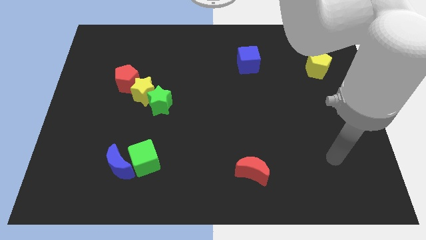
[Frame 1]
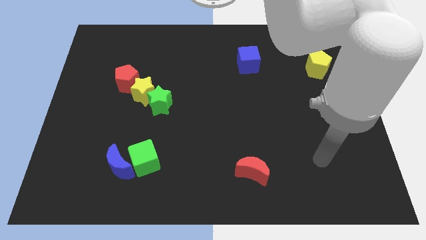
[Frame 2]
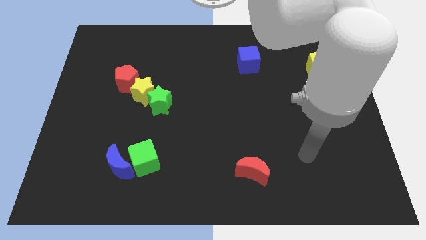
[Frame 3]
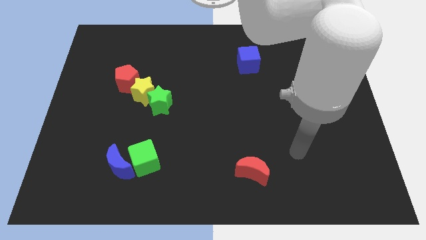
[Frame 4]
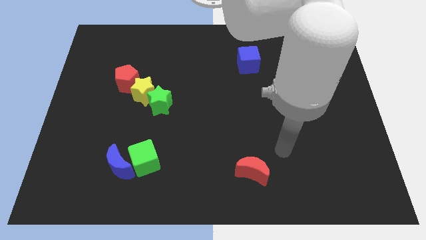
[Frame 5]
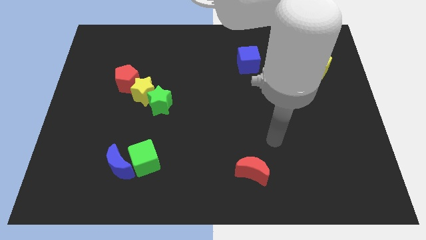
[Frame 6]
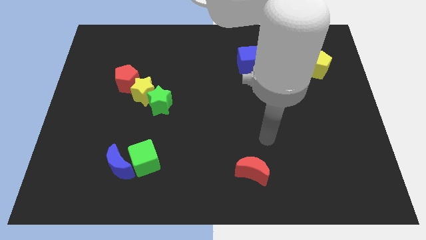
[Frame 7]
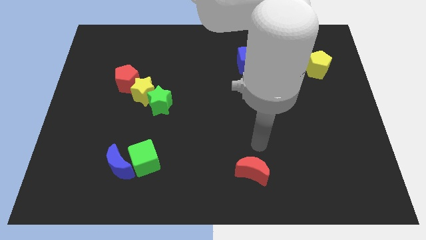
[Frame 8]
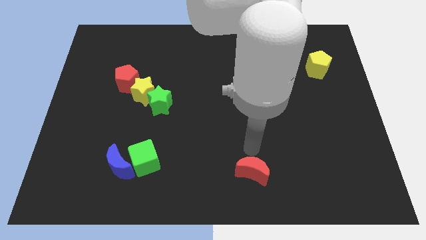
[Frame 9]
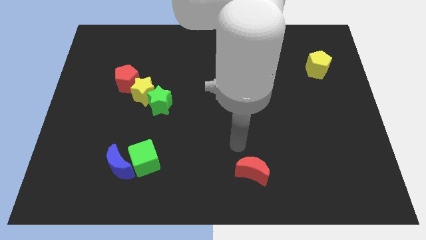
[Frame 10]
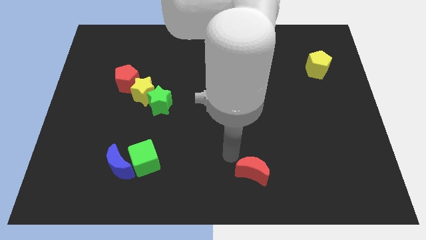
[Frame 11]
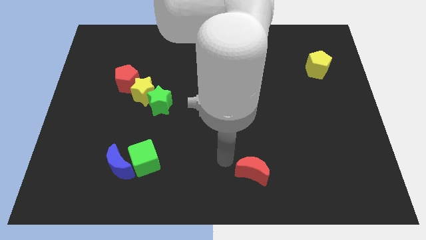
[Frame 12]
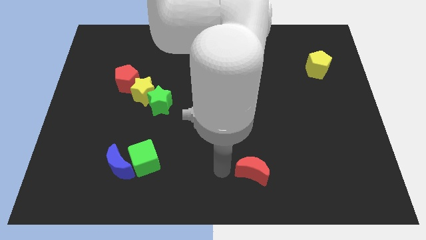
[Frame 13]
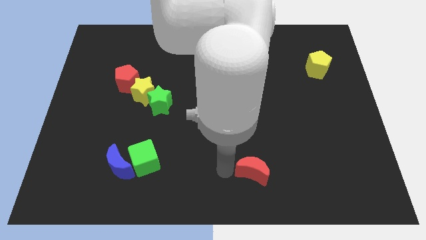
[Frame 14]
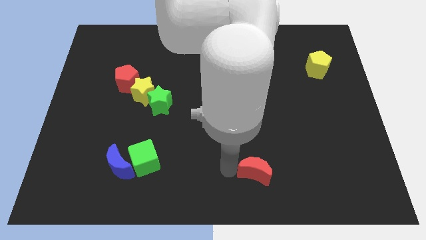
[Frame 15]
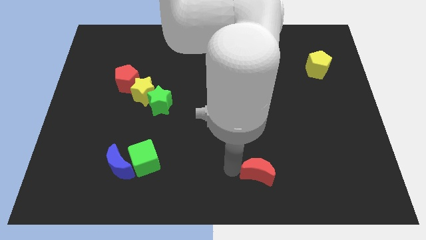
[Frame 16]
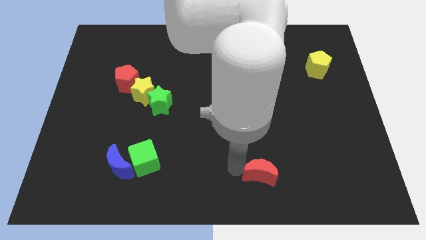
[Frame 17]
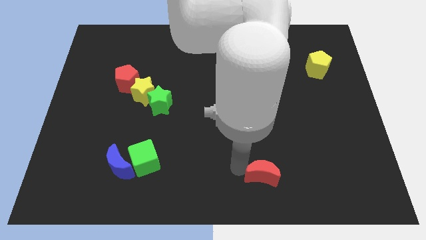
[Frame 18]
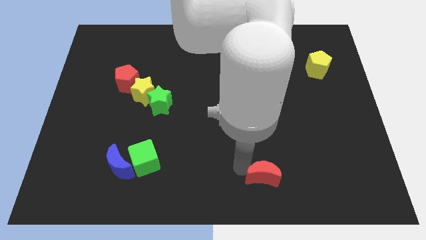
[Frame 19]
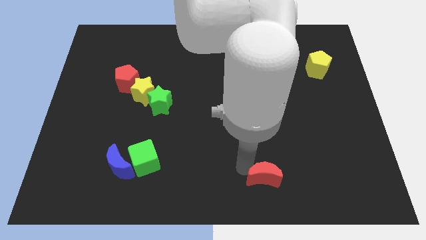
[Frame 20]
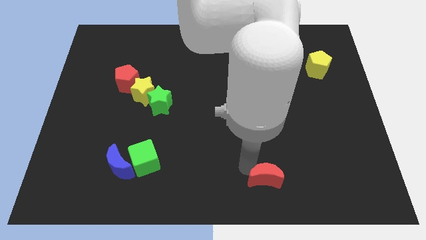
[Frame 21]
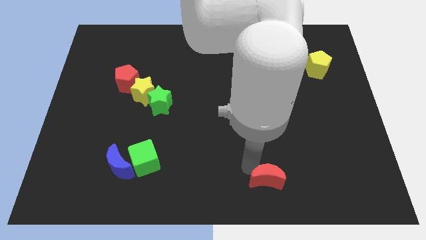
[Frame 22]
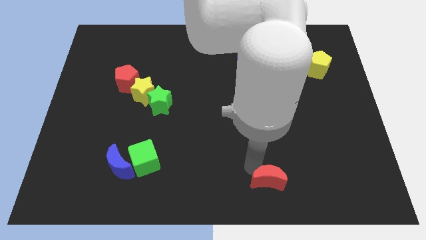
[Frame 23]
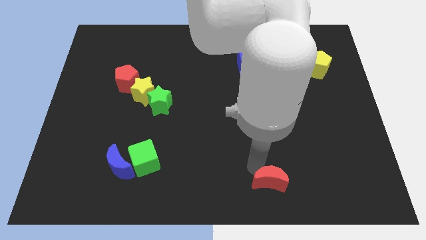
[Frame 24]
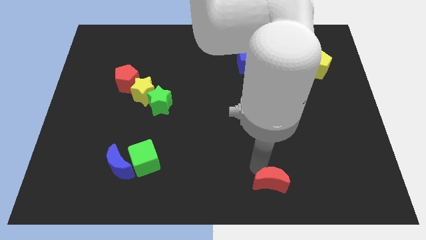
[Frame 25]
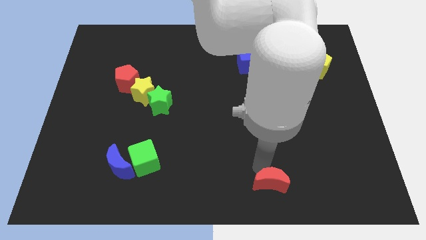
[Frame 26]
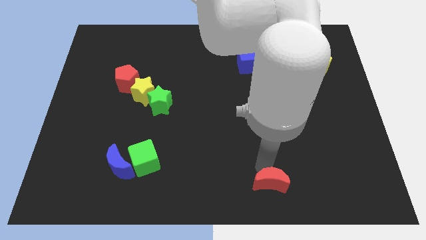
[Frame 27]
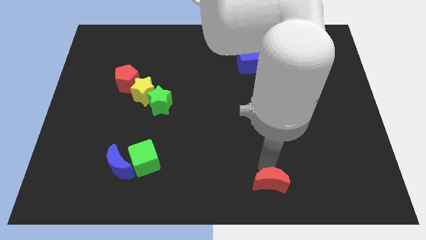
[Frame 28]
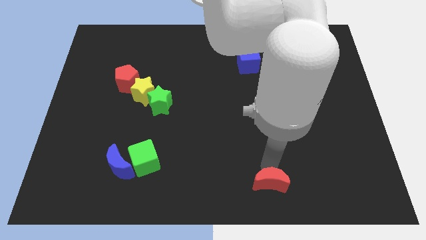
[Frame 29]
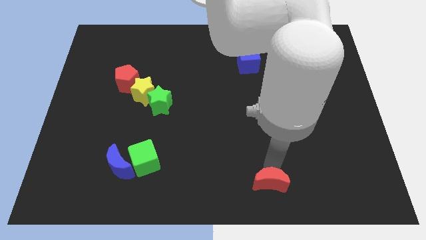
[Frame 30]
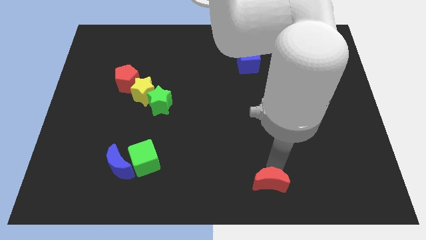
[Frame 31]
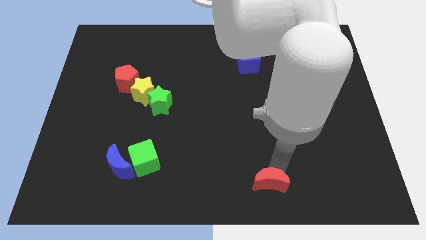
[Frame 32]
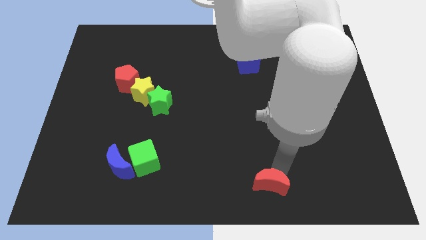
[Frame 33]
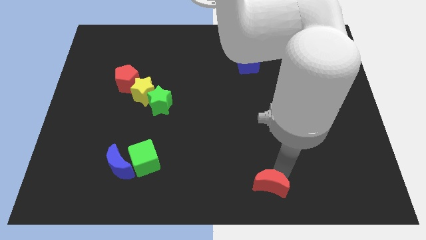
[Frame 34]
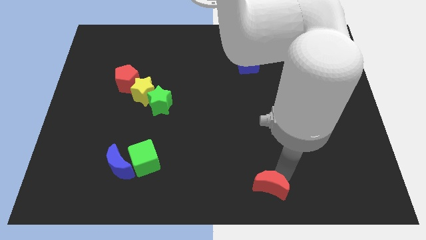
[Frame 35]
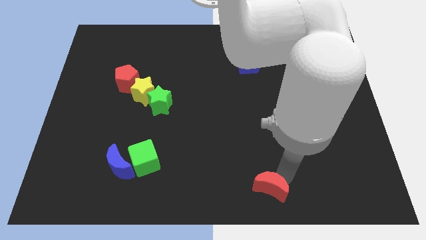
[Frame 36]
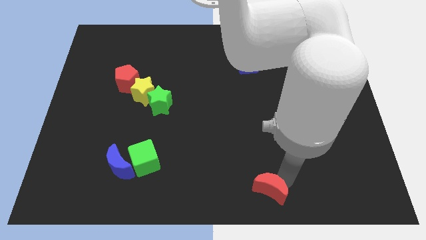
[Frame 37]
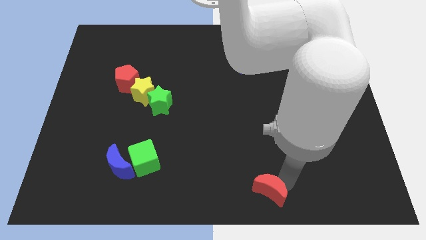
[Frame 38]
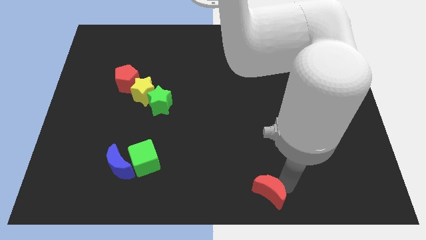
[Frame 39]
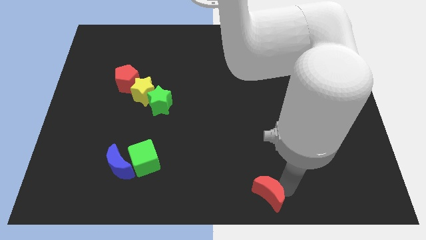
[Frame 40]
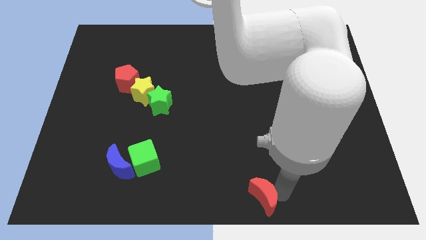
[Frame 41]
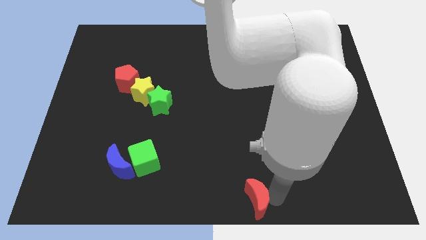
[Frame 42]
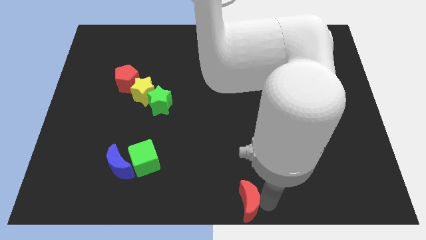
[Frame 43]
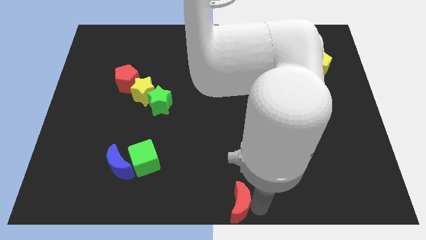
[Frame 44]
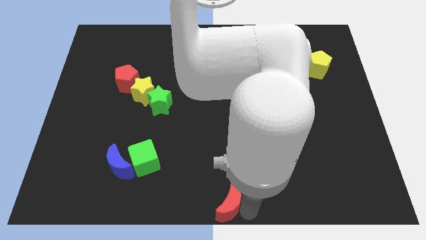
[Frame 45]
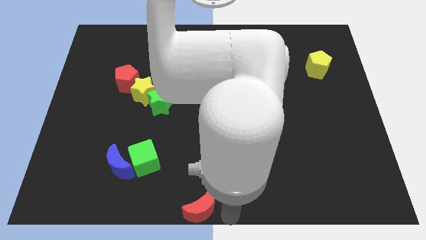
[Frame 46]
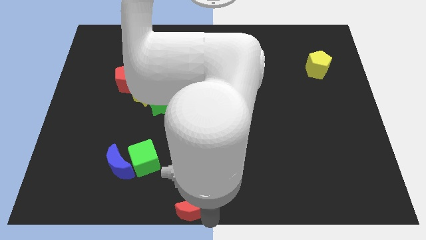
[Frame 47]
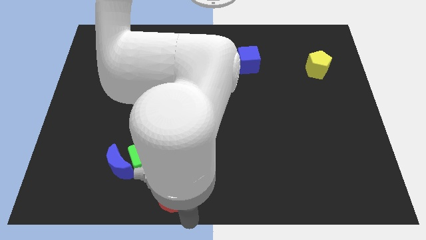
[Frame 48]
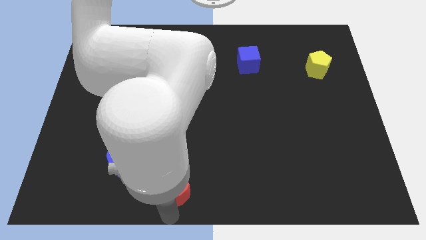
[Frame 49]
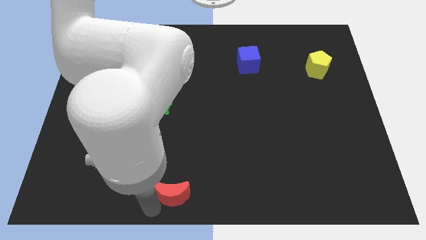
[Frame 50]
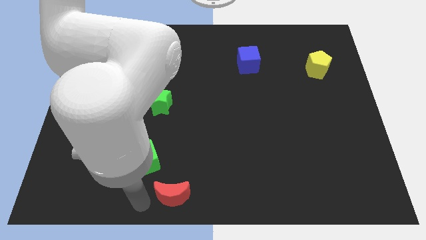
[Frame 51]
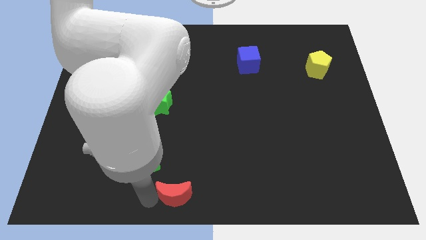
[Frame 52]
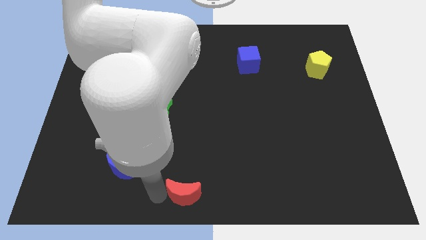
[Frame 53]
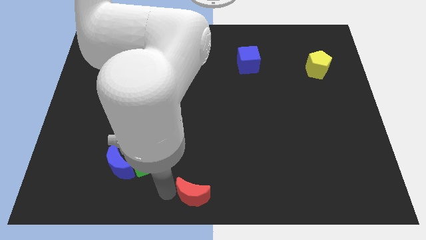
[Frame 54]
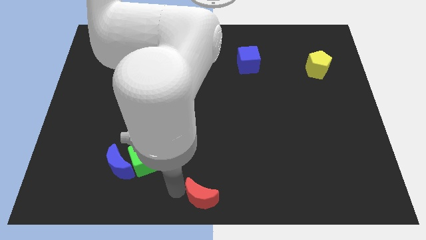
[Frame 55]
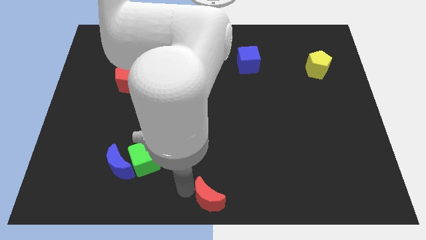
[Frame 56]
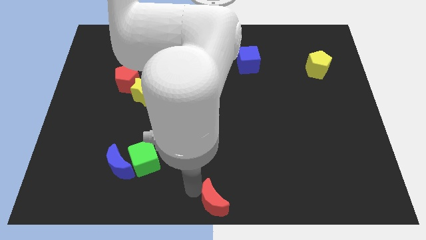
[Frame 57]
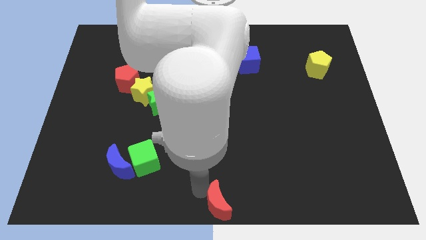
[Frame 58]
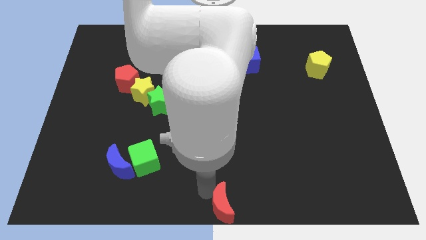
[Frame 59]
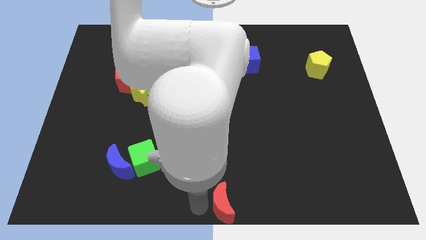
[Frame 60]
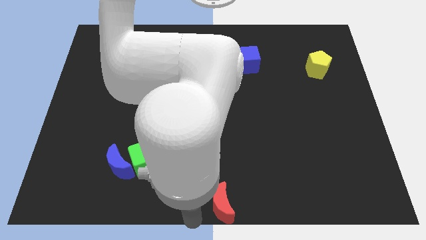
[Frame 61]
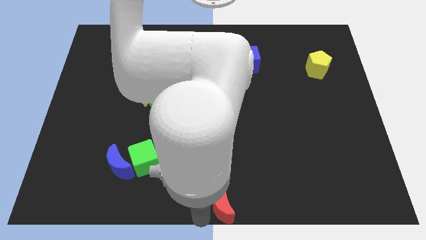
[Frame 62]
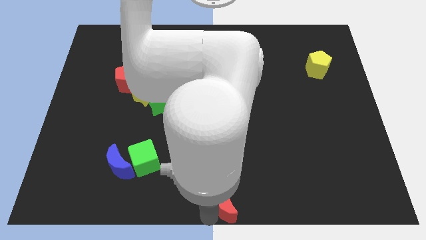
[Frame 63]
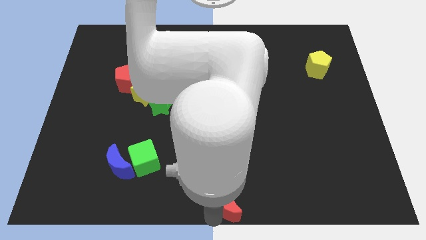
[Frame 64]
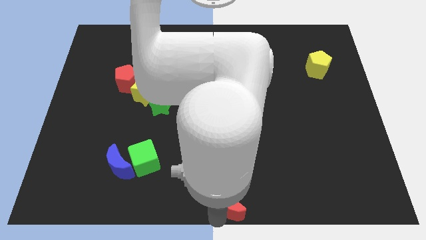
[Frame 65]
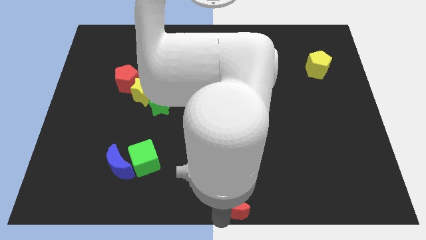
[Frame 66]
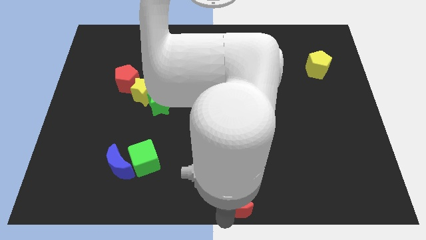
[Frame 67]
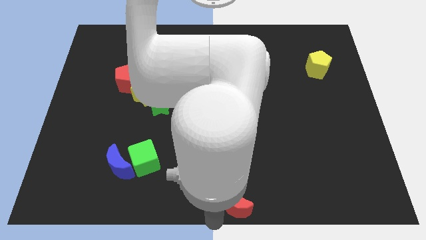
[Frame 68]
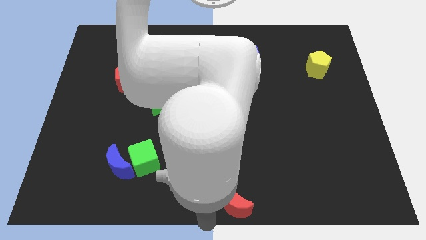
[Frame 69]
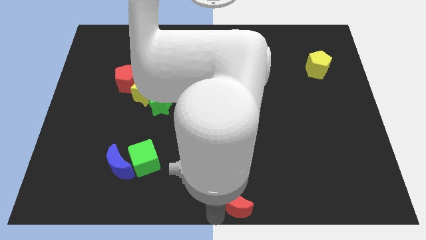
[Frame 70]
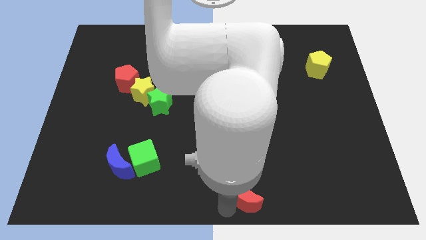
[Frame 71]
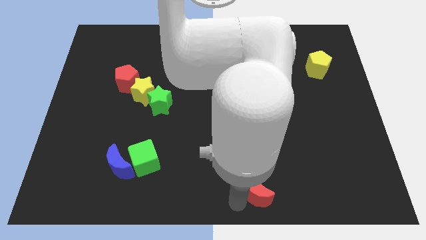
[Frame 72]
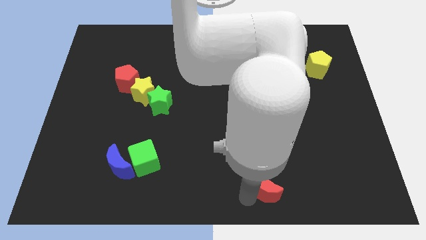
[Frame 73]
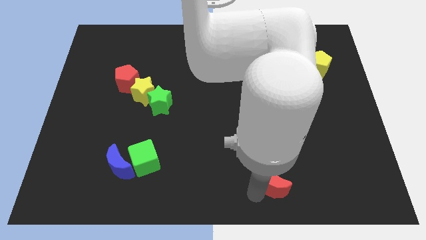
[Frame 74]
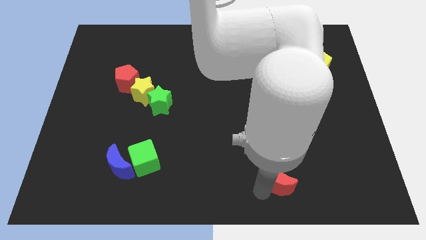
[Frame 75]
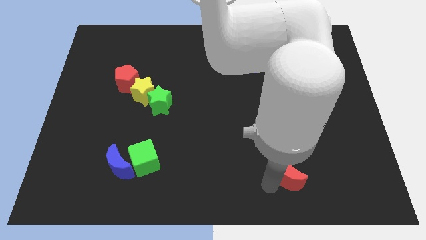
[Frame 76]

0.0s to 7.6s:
move the red moon right a little

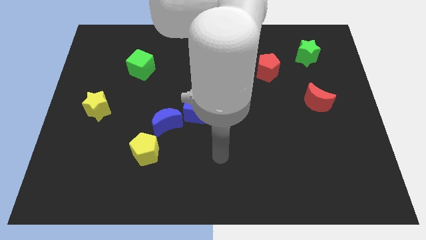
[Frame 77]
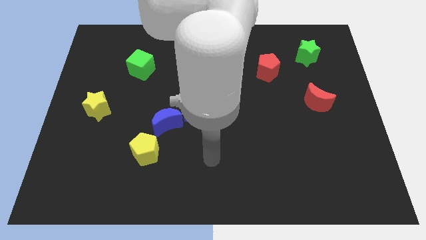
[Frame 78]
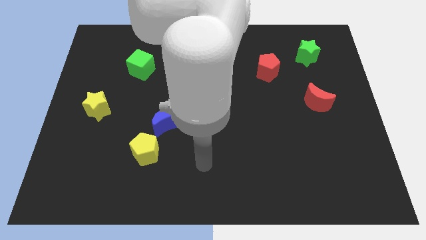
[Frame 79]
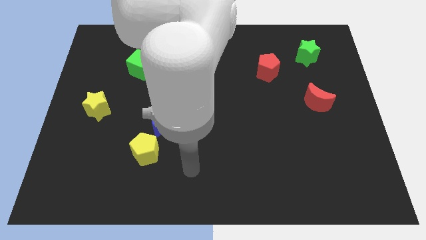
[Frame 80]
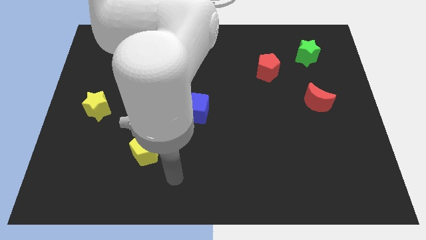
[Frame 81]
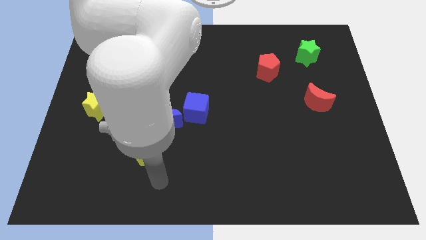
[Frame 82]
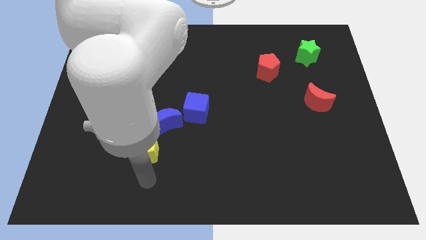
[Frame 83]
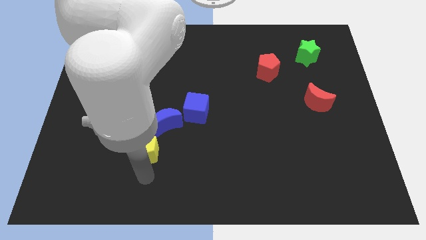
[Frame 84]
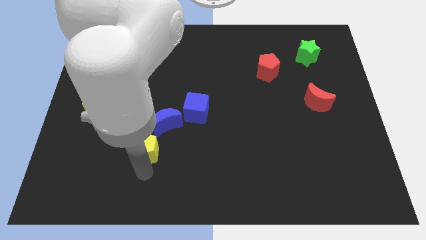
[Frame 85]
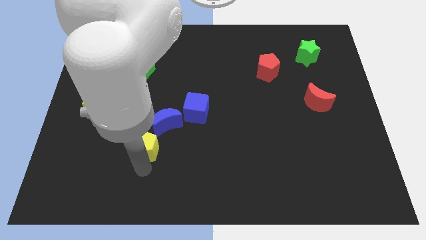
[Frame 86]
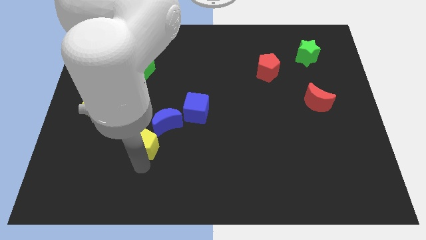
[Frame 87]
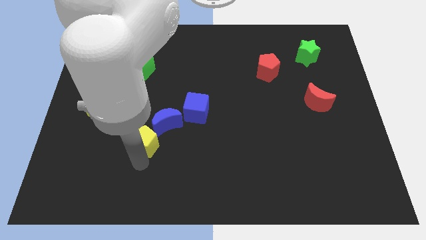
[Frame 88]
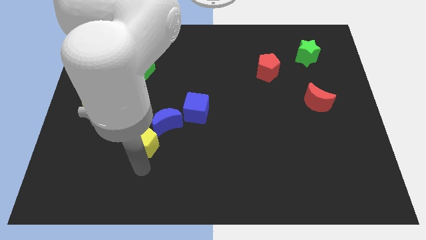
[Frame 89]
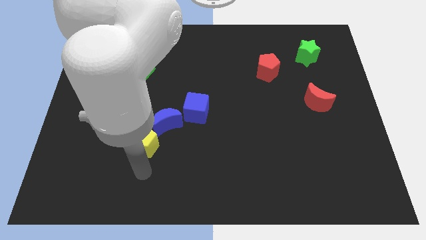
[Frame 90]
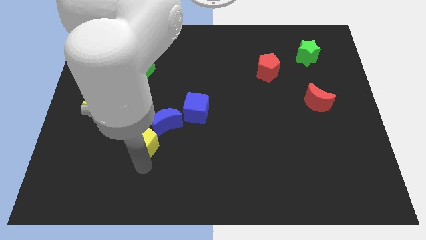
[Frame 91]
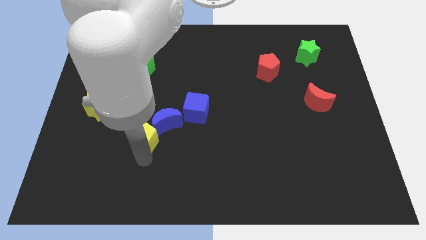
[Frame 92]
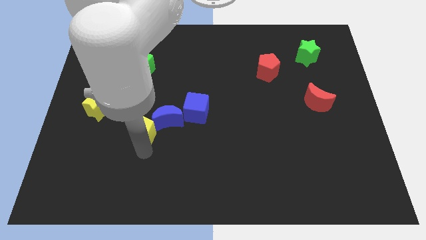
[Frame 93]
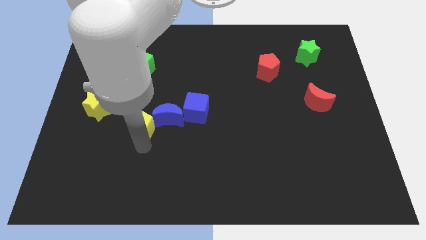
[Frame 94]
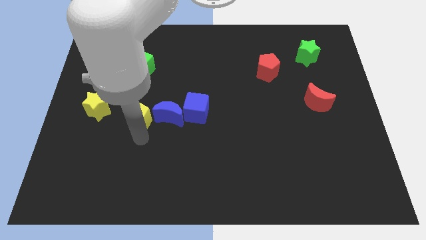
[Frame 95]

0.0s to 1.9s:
move the yellow pentagon upwards a bit
